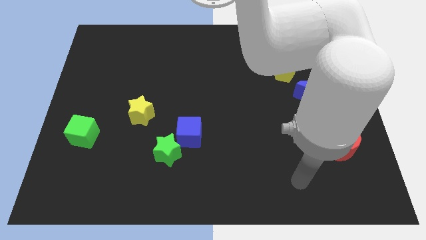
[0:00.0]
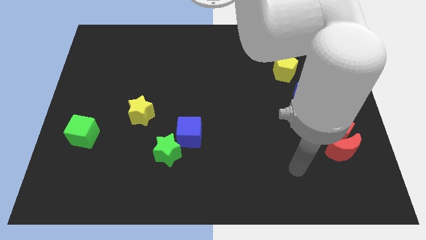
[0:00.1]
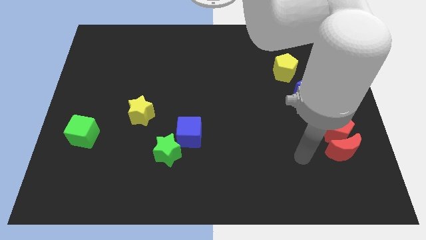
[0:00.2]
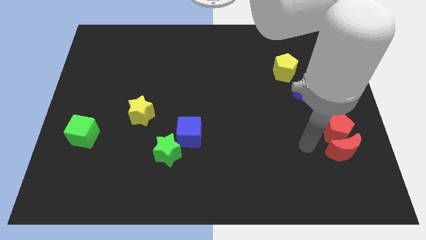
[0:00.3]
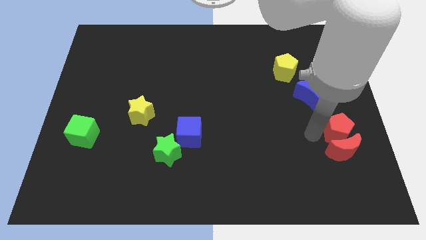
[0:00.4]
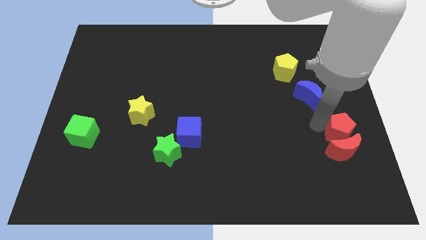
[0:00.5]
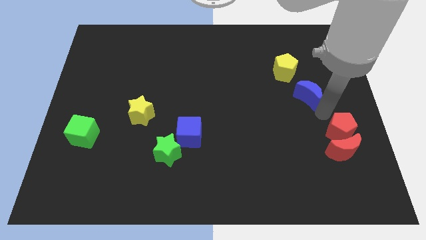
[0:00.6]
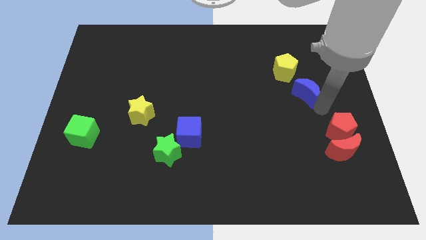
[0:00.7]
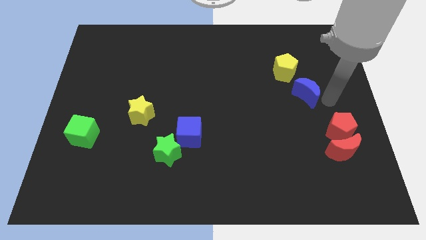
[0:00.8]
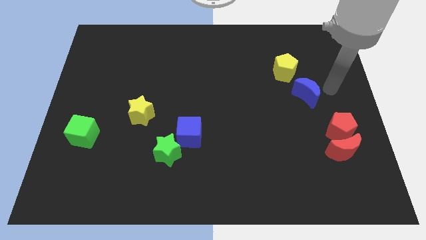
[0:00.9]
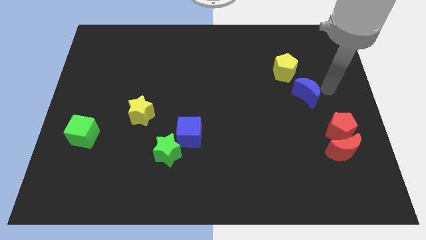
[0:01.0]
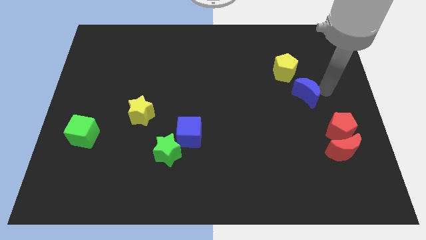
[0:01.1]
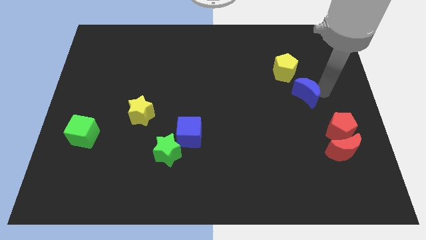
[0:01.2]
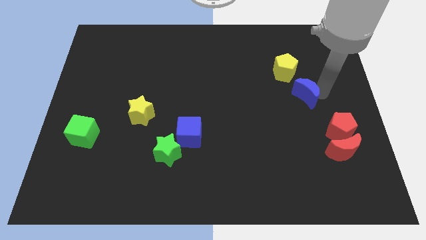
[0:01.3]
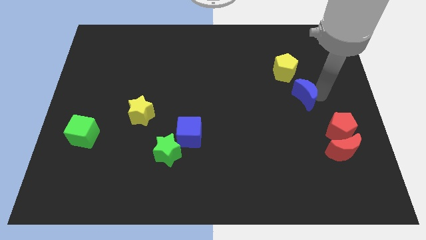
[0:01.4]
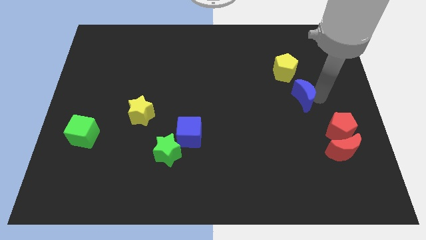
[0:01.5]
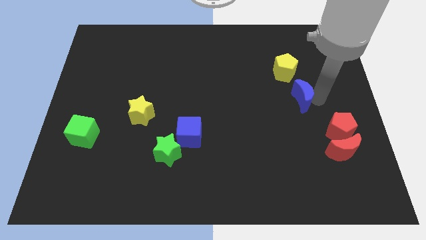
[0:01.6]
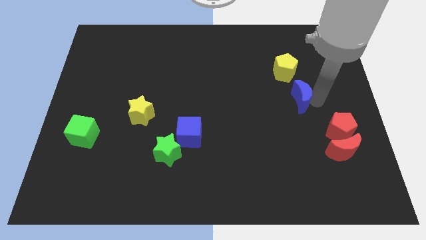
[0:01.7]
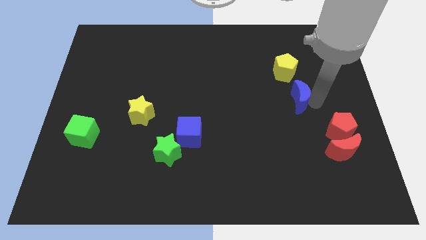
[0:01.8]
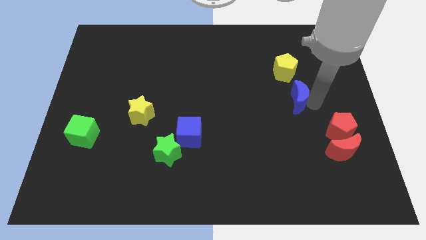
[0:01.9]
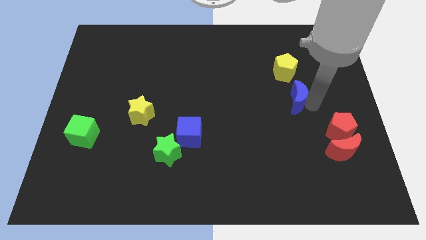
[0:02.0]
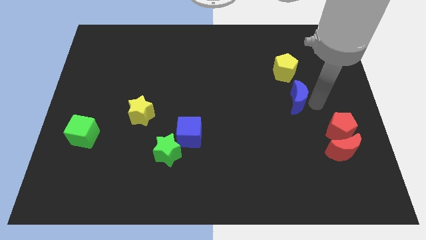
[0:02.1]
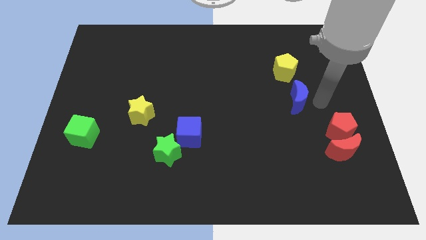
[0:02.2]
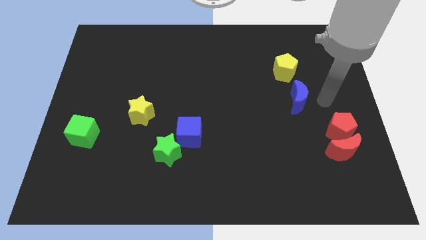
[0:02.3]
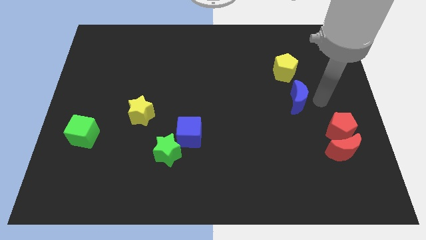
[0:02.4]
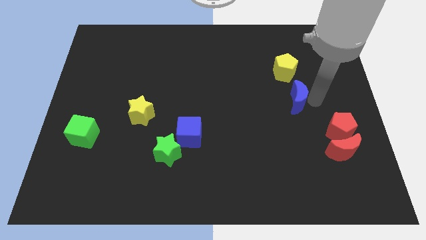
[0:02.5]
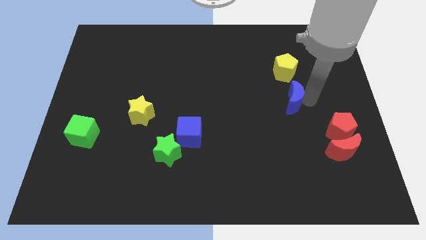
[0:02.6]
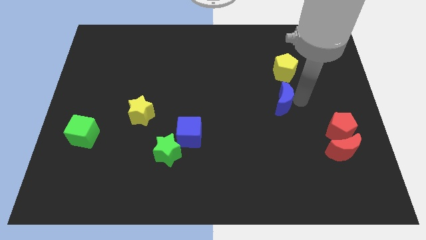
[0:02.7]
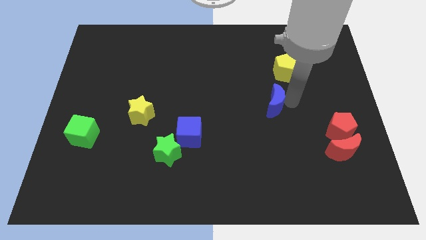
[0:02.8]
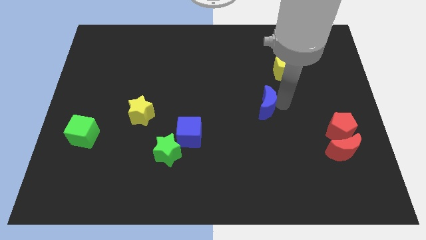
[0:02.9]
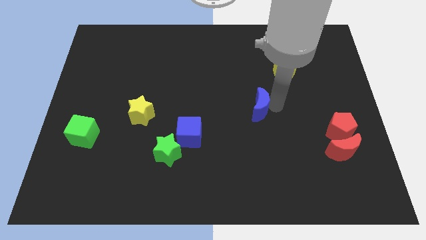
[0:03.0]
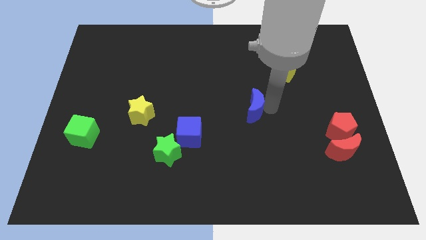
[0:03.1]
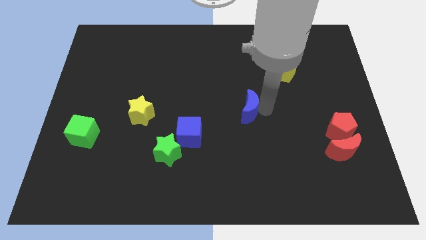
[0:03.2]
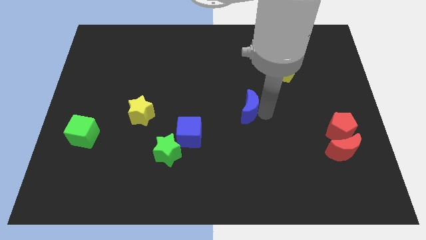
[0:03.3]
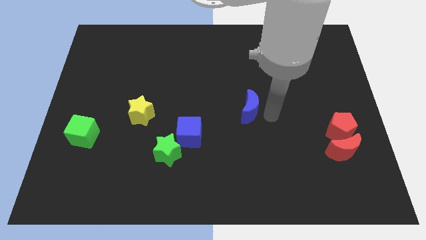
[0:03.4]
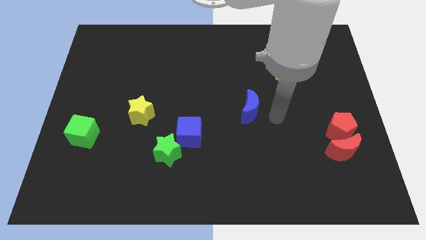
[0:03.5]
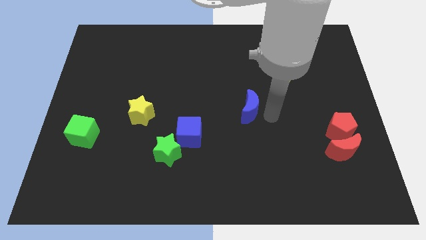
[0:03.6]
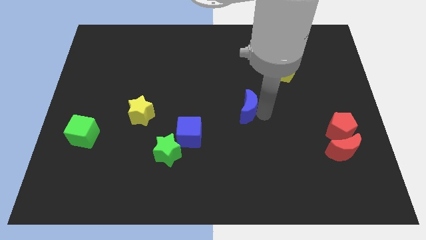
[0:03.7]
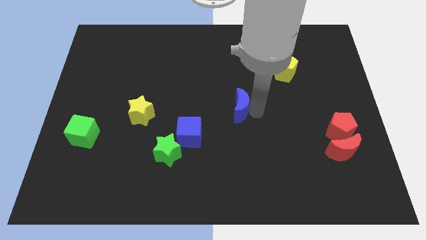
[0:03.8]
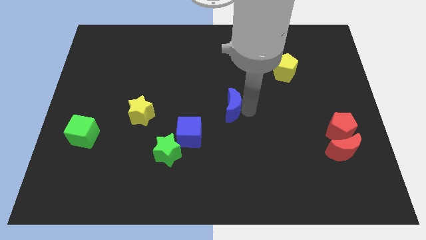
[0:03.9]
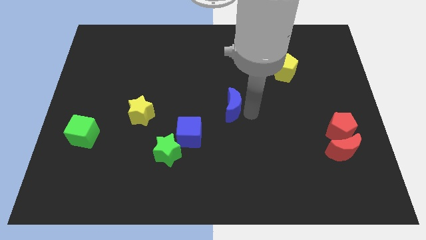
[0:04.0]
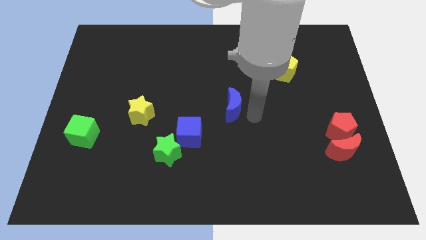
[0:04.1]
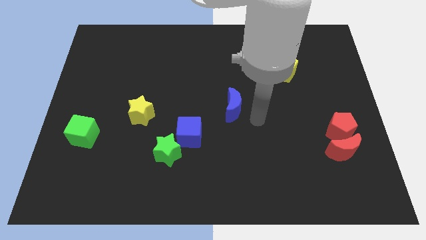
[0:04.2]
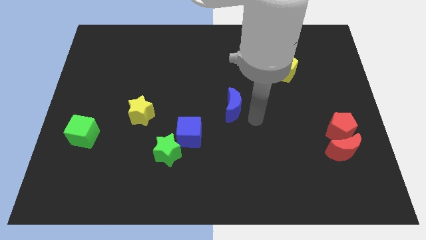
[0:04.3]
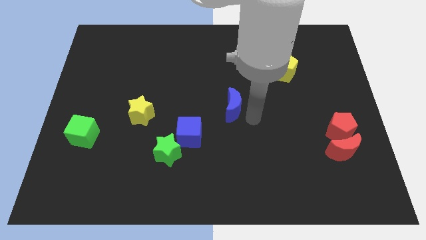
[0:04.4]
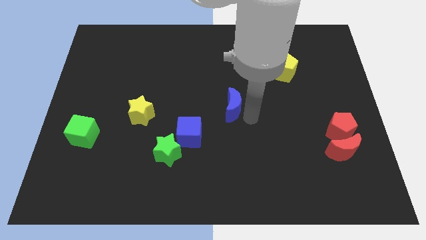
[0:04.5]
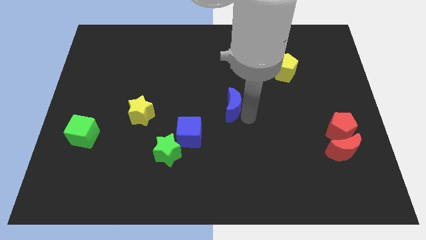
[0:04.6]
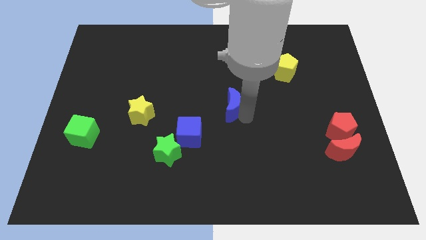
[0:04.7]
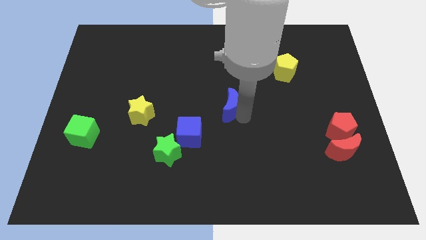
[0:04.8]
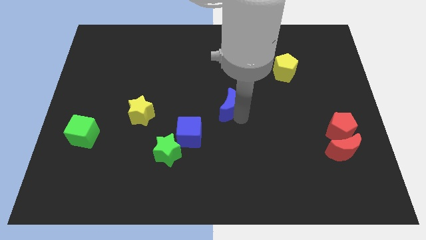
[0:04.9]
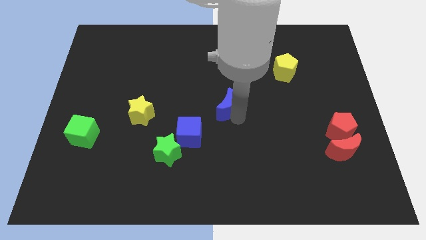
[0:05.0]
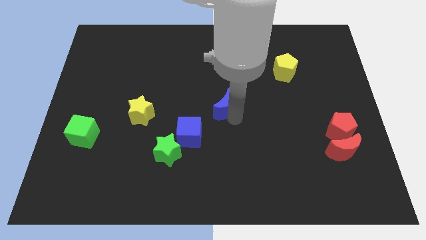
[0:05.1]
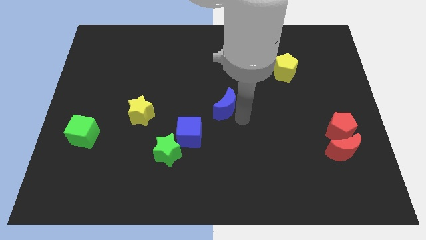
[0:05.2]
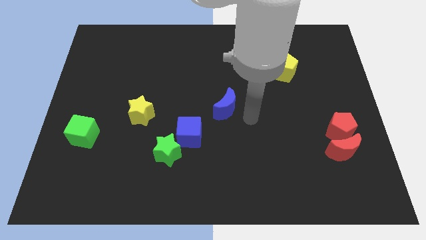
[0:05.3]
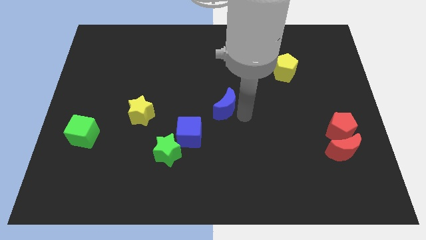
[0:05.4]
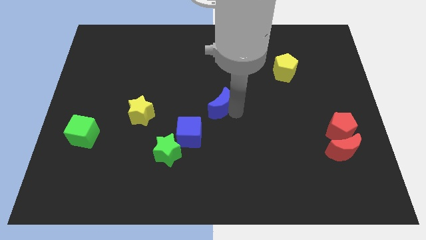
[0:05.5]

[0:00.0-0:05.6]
slide the blue moon to the left

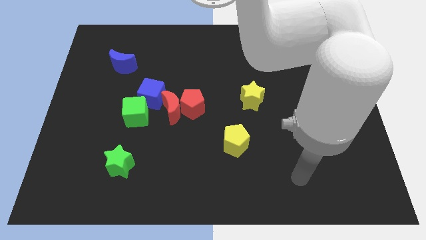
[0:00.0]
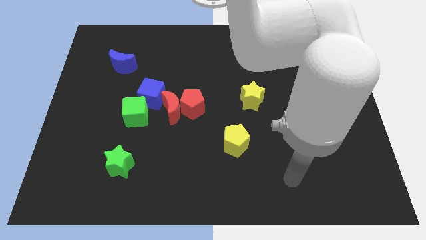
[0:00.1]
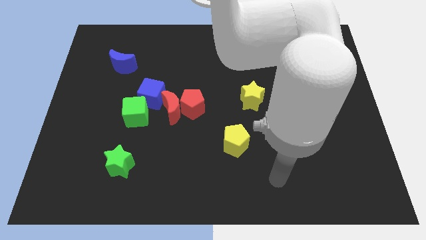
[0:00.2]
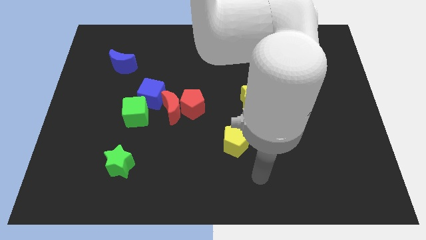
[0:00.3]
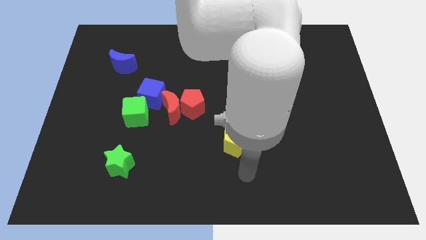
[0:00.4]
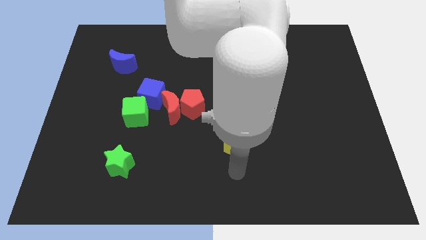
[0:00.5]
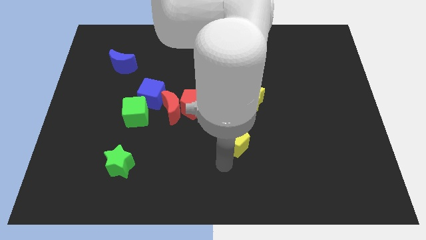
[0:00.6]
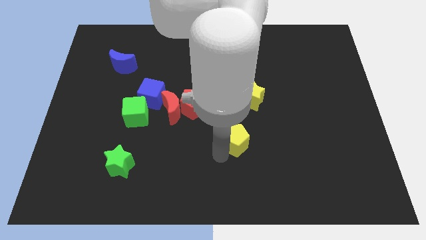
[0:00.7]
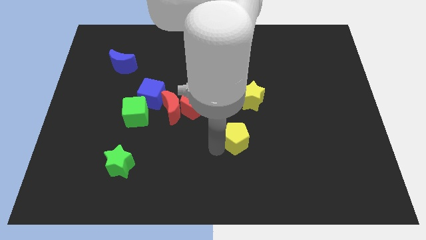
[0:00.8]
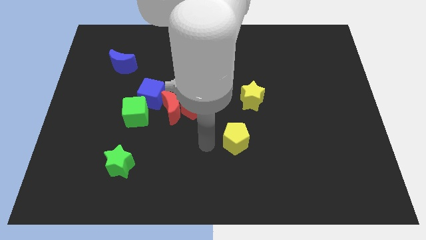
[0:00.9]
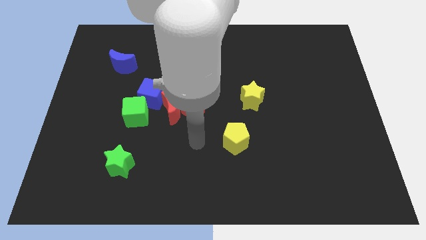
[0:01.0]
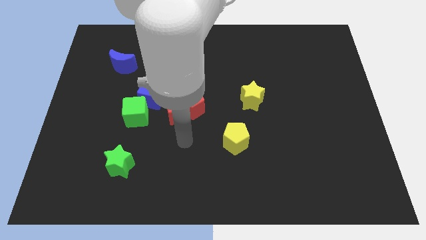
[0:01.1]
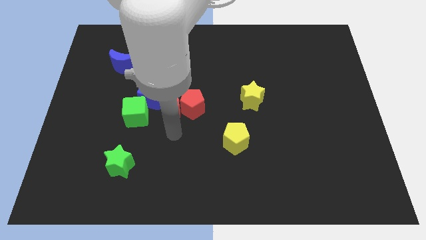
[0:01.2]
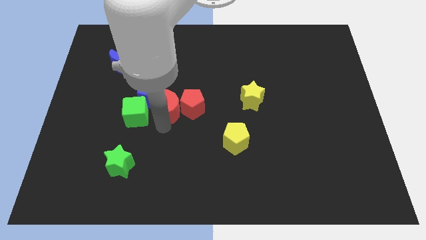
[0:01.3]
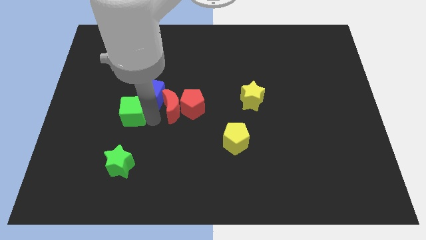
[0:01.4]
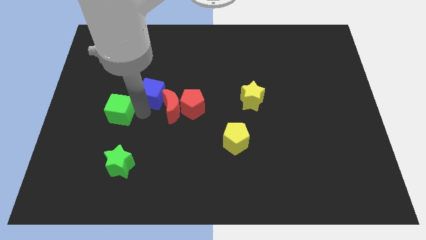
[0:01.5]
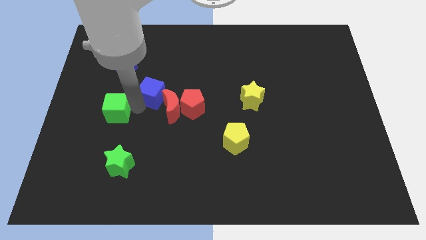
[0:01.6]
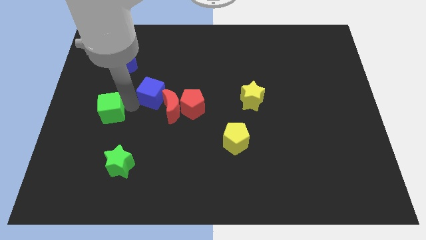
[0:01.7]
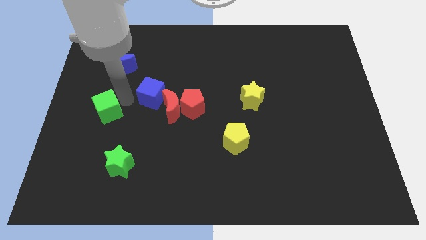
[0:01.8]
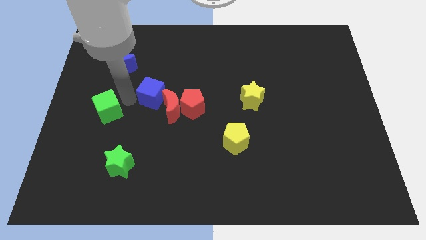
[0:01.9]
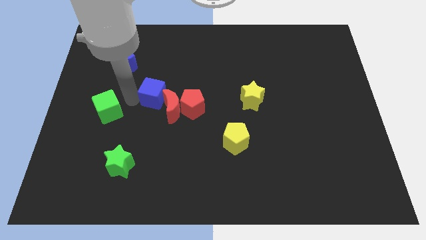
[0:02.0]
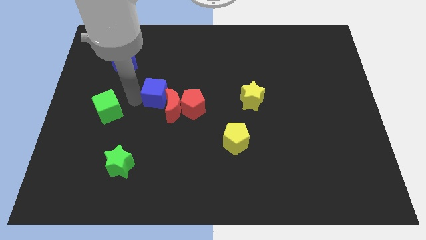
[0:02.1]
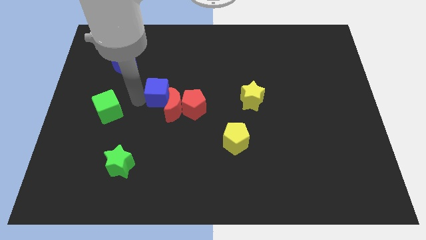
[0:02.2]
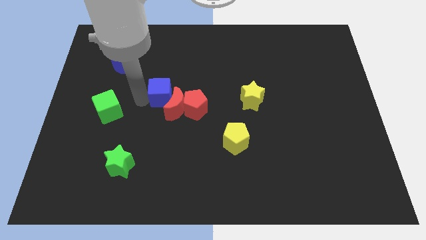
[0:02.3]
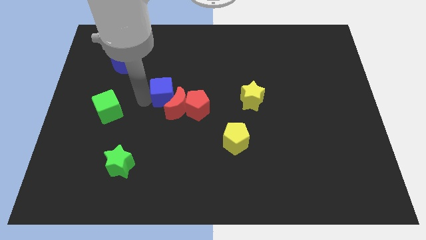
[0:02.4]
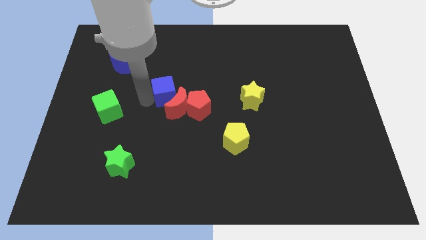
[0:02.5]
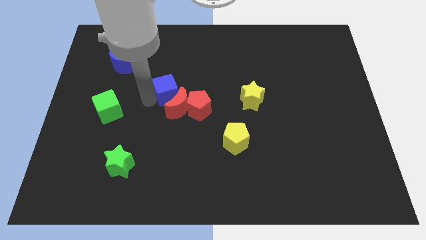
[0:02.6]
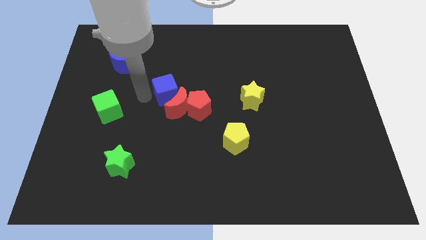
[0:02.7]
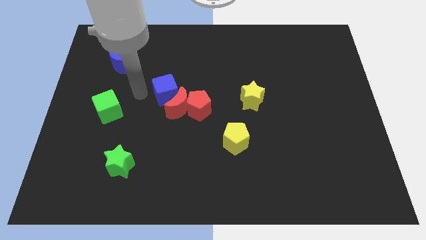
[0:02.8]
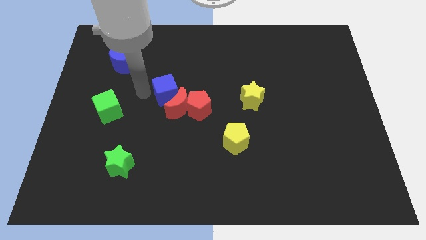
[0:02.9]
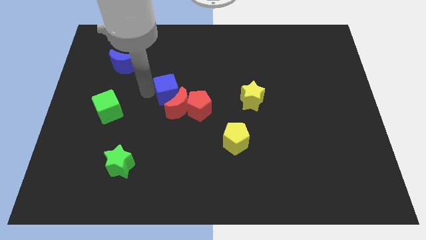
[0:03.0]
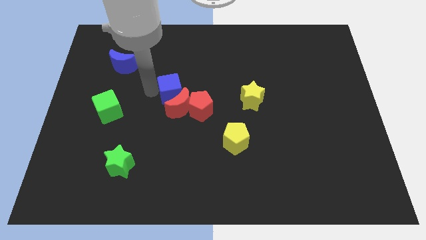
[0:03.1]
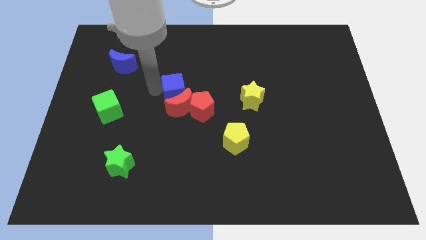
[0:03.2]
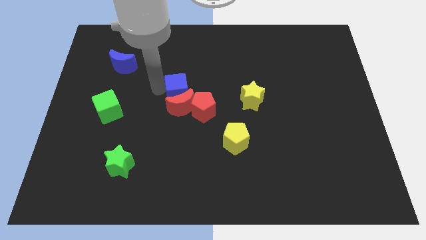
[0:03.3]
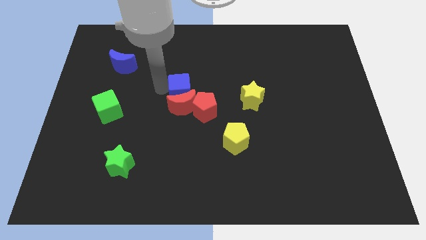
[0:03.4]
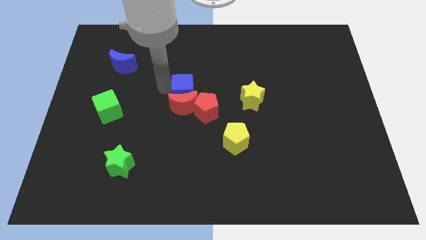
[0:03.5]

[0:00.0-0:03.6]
slide the blue cube a bit right
